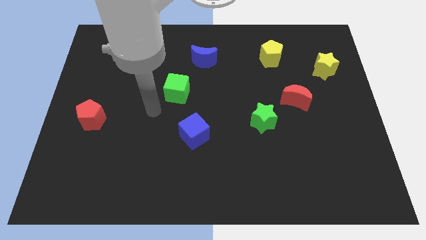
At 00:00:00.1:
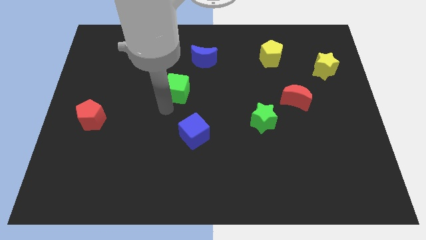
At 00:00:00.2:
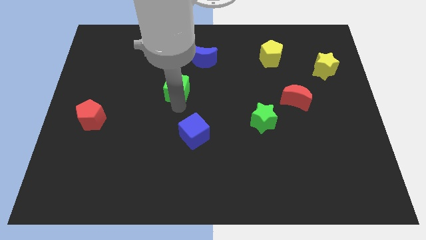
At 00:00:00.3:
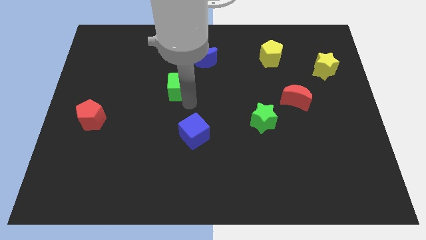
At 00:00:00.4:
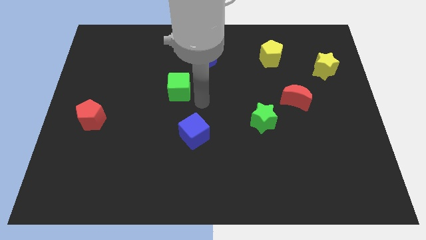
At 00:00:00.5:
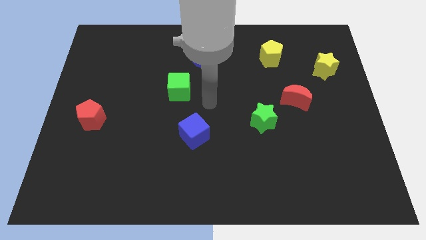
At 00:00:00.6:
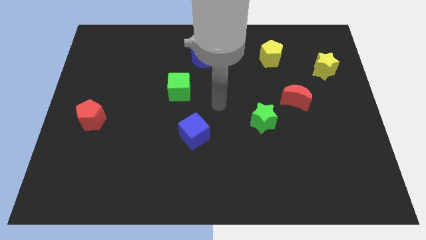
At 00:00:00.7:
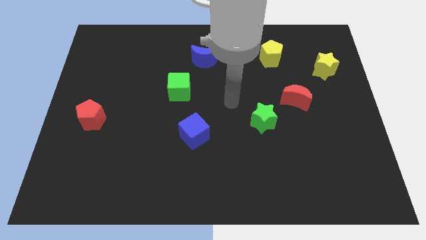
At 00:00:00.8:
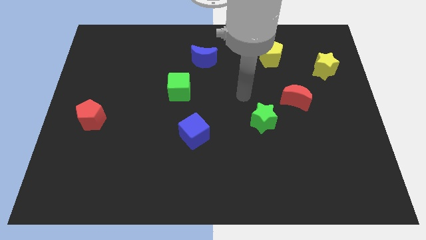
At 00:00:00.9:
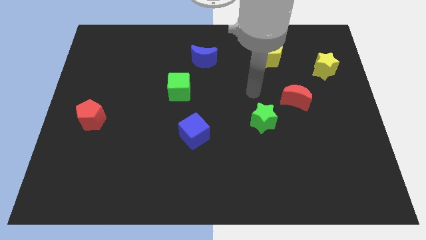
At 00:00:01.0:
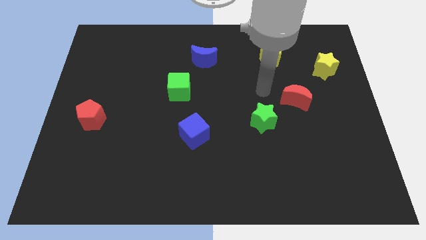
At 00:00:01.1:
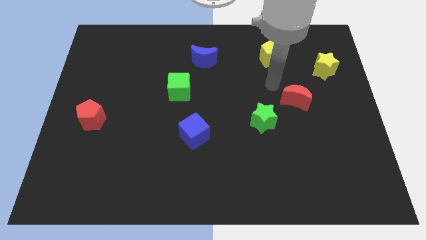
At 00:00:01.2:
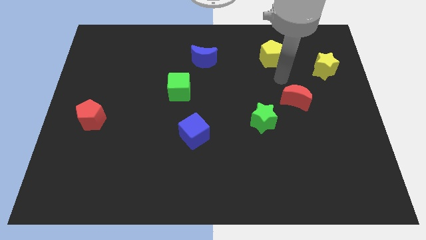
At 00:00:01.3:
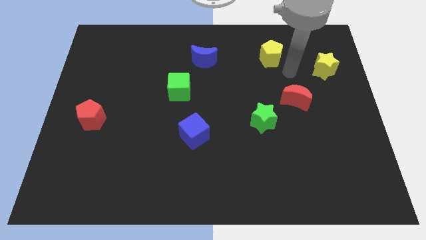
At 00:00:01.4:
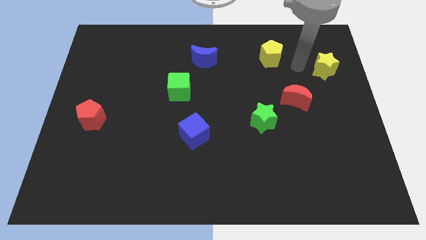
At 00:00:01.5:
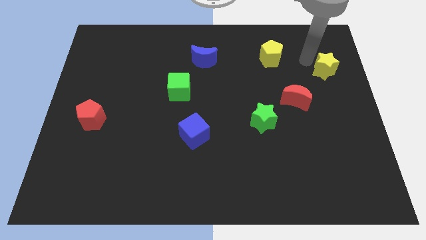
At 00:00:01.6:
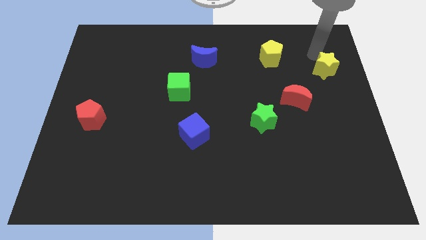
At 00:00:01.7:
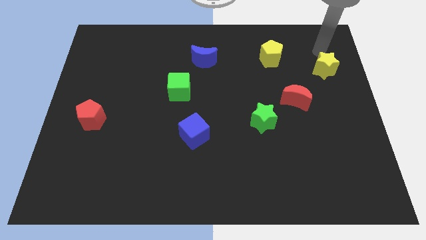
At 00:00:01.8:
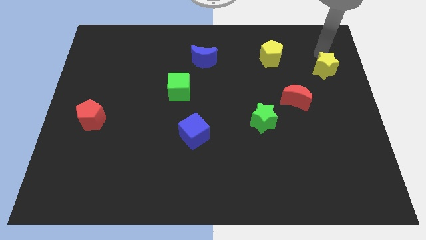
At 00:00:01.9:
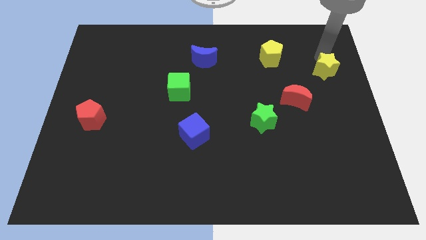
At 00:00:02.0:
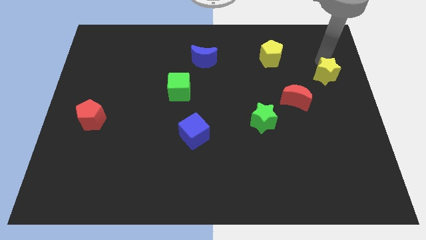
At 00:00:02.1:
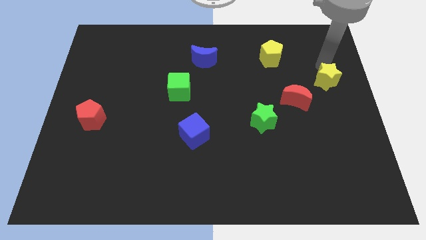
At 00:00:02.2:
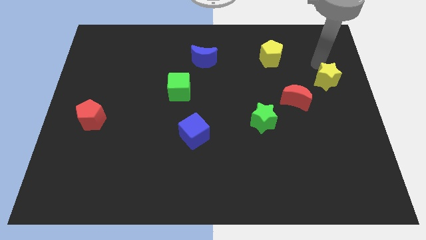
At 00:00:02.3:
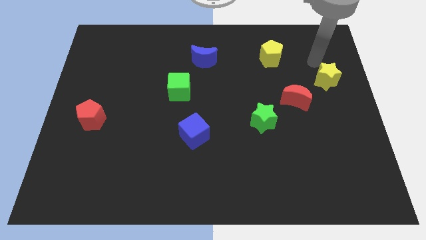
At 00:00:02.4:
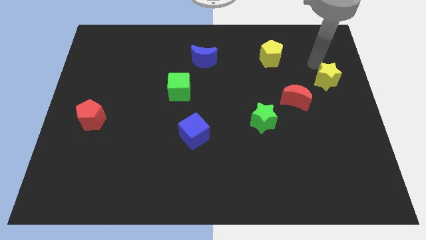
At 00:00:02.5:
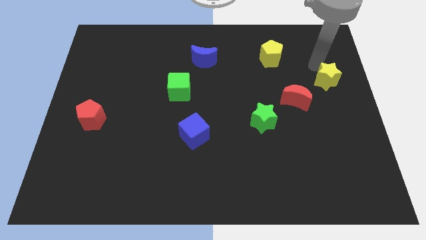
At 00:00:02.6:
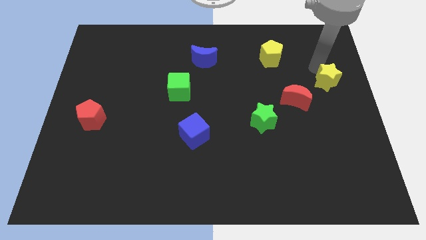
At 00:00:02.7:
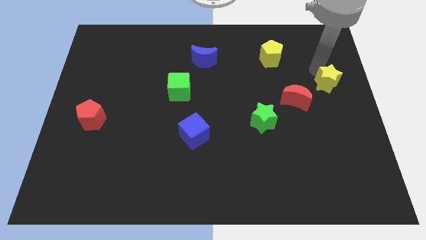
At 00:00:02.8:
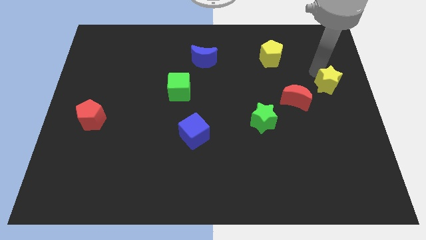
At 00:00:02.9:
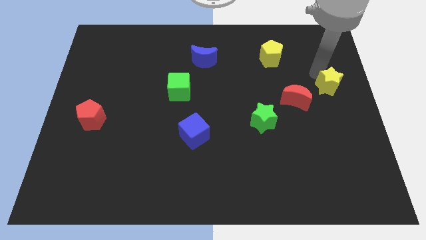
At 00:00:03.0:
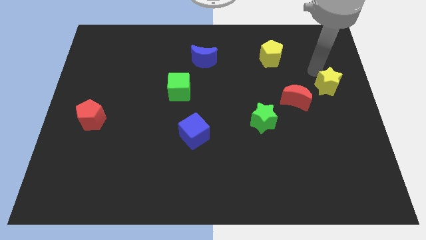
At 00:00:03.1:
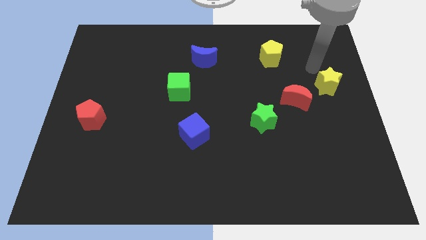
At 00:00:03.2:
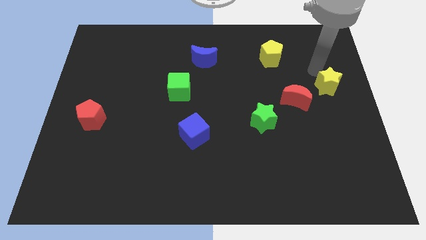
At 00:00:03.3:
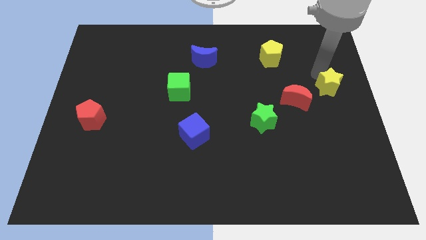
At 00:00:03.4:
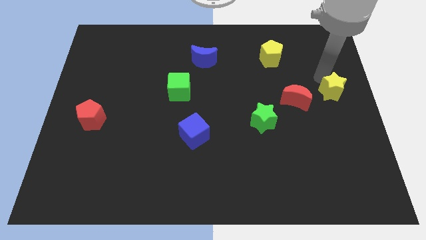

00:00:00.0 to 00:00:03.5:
slightly slide the yellow star down

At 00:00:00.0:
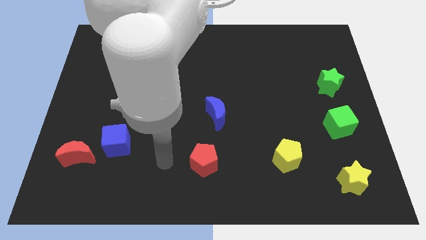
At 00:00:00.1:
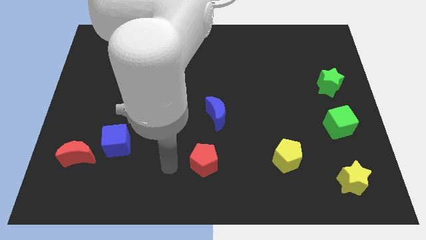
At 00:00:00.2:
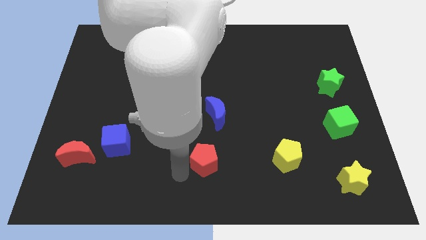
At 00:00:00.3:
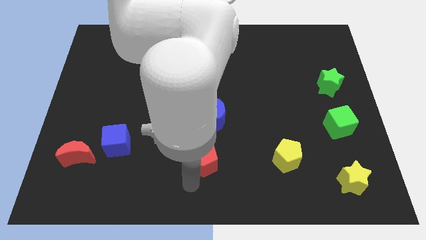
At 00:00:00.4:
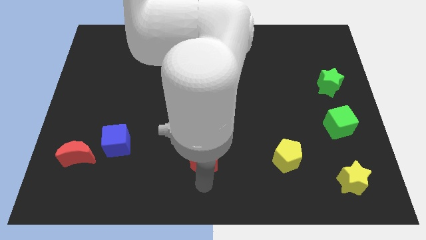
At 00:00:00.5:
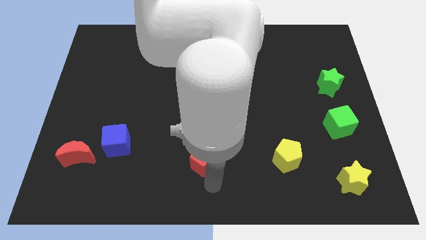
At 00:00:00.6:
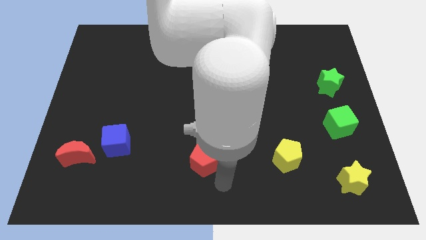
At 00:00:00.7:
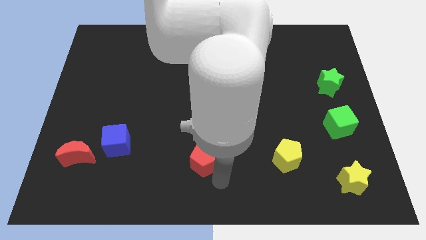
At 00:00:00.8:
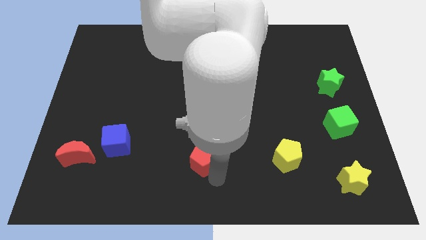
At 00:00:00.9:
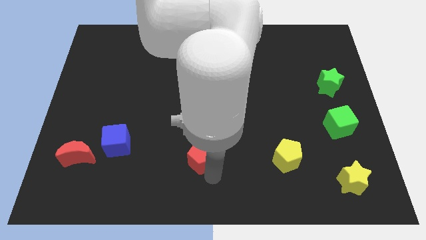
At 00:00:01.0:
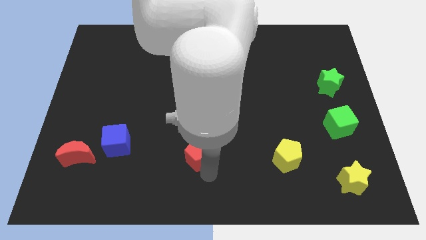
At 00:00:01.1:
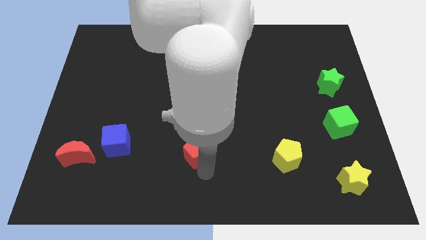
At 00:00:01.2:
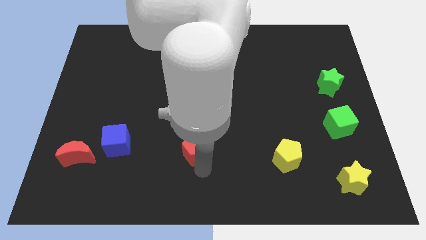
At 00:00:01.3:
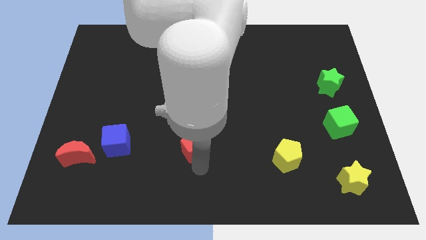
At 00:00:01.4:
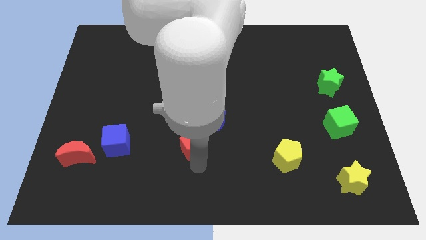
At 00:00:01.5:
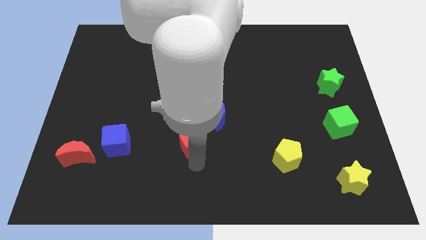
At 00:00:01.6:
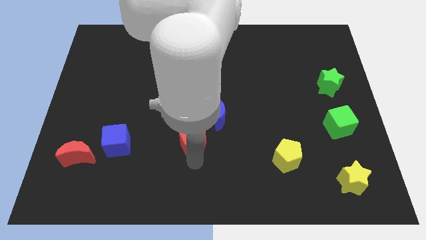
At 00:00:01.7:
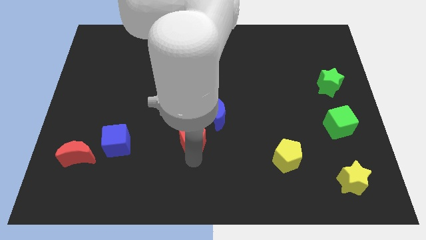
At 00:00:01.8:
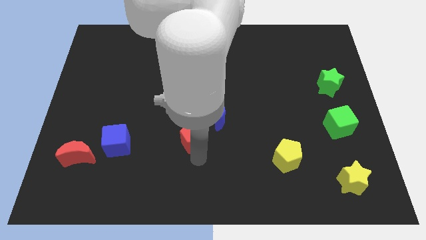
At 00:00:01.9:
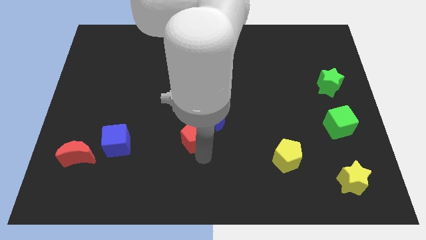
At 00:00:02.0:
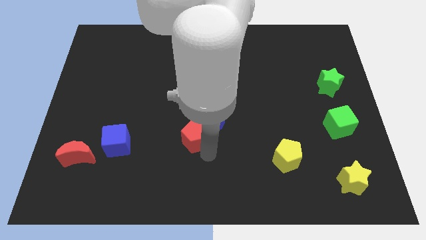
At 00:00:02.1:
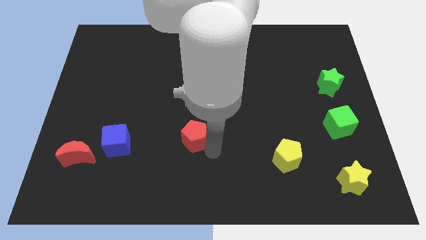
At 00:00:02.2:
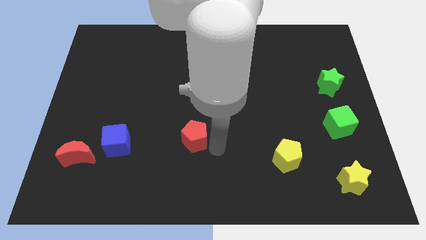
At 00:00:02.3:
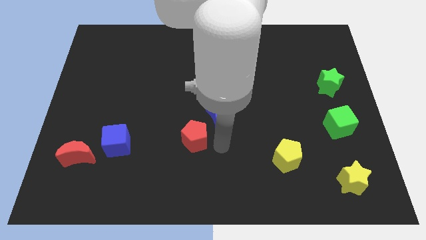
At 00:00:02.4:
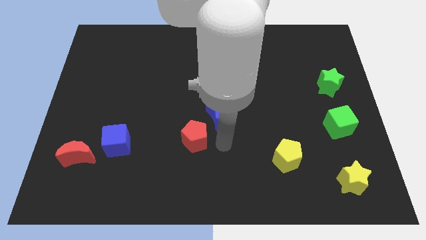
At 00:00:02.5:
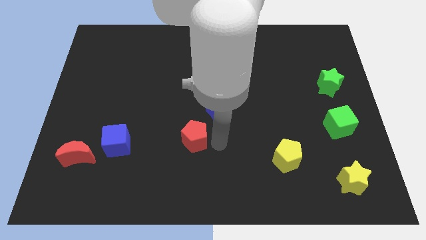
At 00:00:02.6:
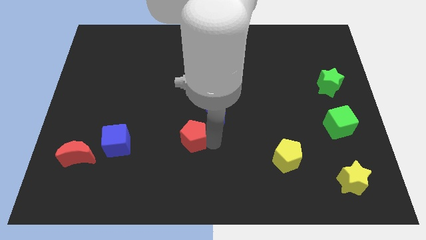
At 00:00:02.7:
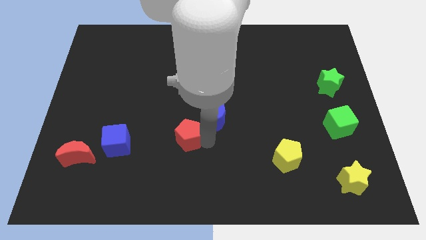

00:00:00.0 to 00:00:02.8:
slightly move the red pentagon up and left

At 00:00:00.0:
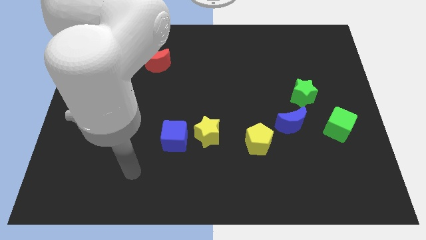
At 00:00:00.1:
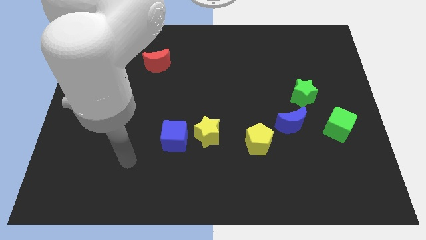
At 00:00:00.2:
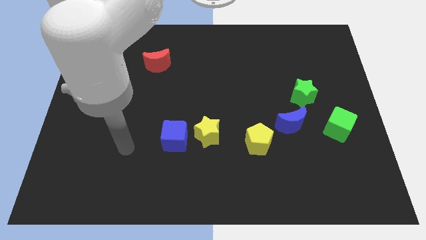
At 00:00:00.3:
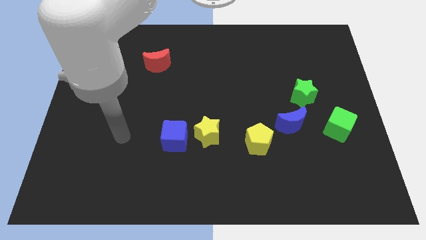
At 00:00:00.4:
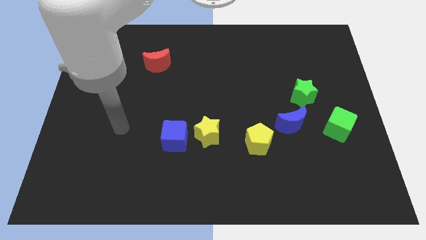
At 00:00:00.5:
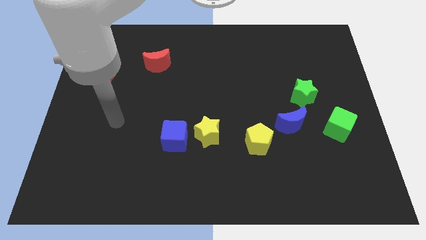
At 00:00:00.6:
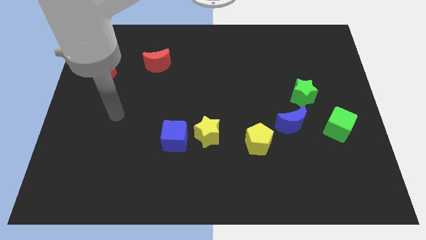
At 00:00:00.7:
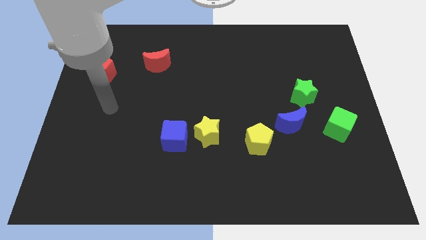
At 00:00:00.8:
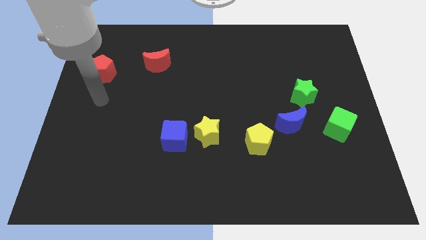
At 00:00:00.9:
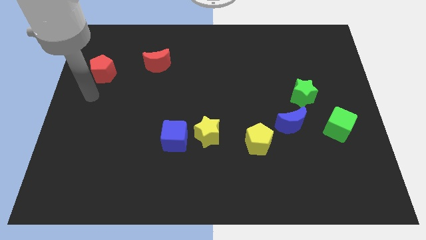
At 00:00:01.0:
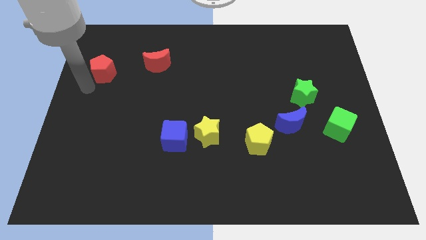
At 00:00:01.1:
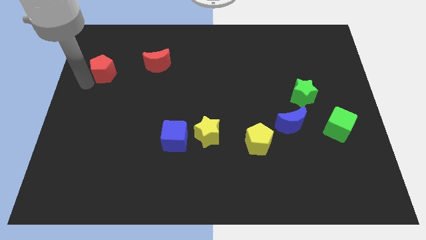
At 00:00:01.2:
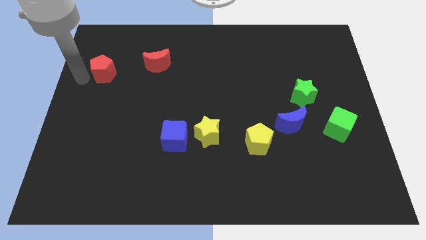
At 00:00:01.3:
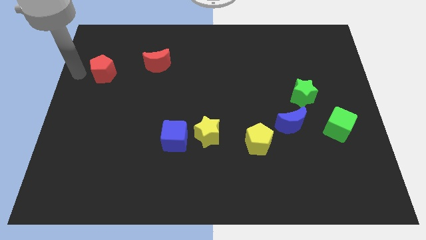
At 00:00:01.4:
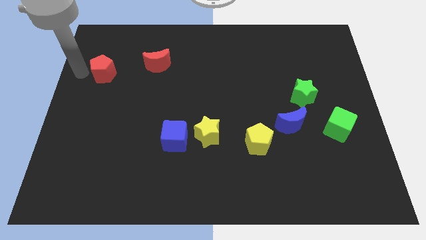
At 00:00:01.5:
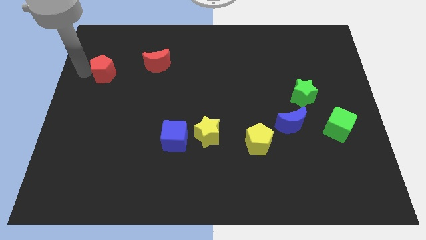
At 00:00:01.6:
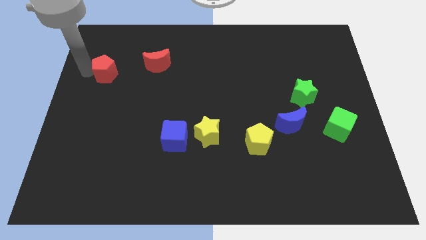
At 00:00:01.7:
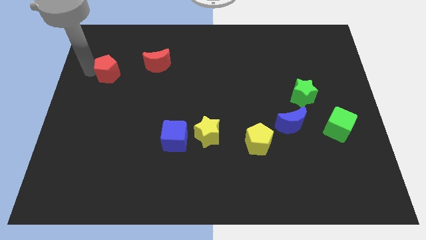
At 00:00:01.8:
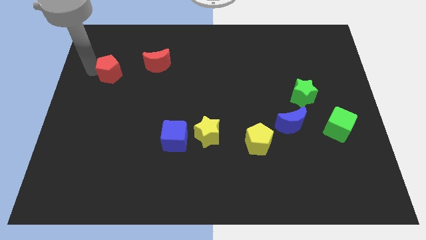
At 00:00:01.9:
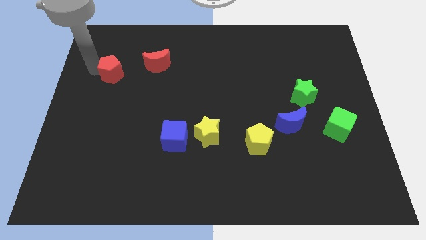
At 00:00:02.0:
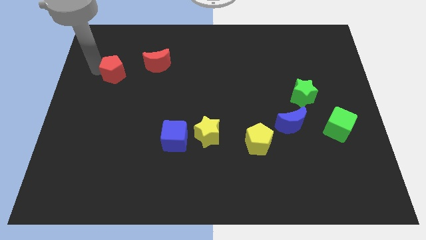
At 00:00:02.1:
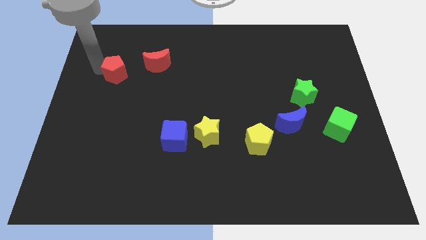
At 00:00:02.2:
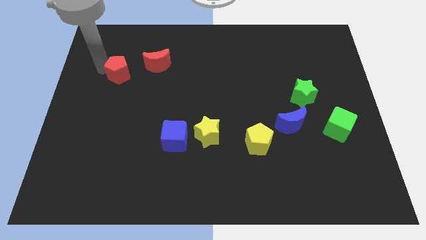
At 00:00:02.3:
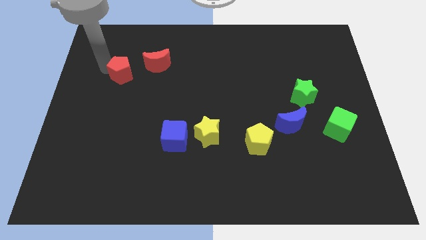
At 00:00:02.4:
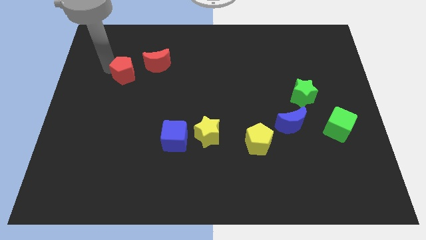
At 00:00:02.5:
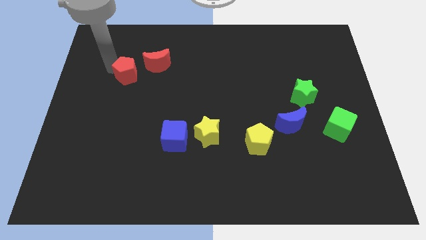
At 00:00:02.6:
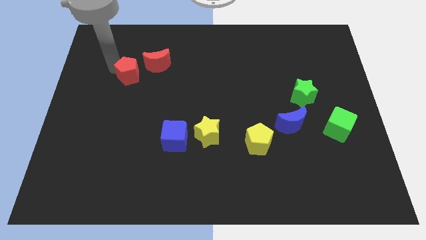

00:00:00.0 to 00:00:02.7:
slide the red pentagon a little bit right
